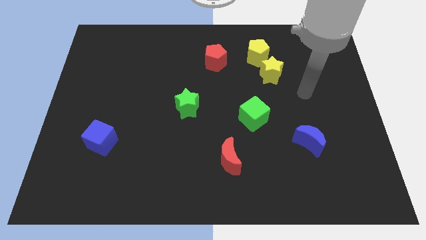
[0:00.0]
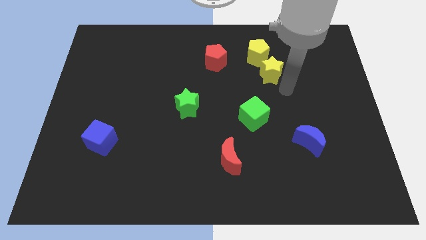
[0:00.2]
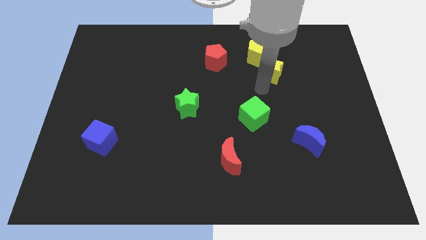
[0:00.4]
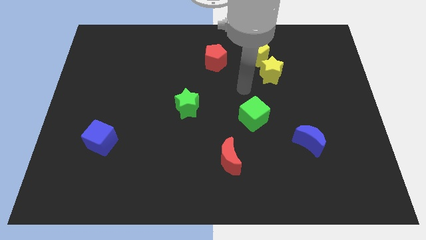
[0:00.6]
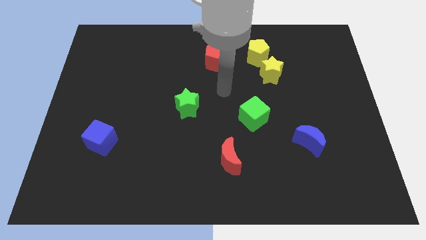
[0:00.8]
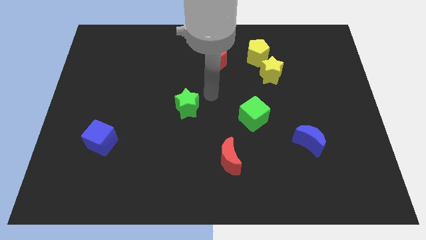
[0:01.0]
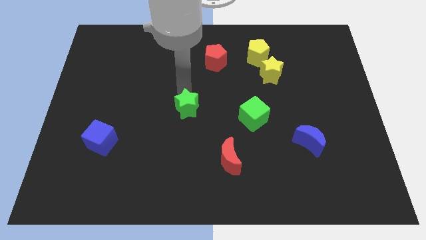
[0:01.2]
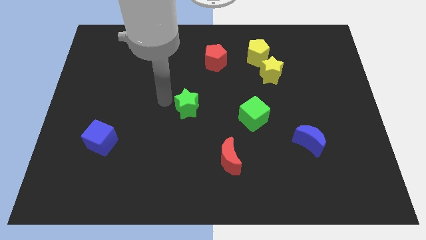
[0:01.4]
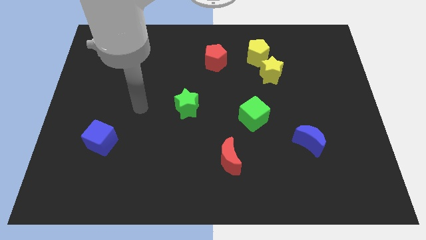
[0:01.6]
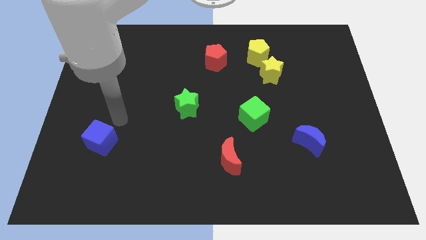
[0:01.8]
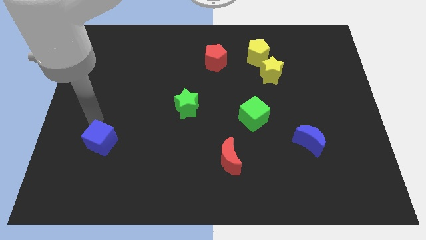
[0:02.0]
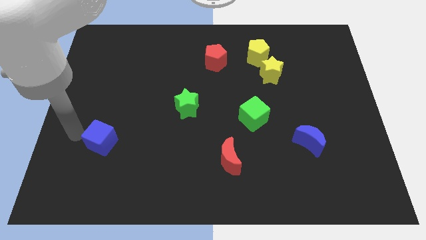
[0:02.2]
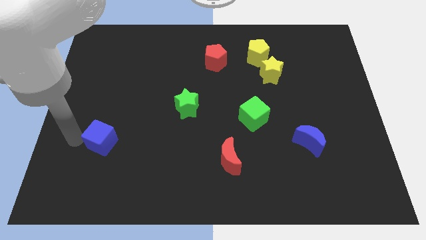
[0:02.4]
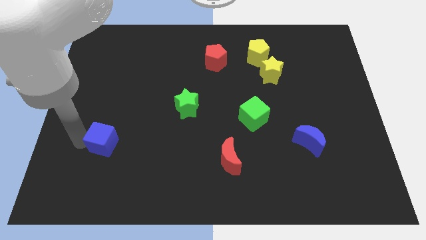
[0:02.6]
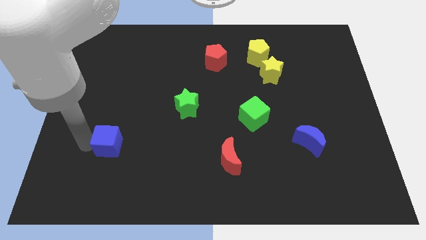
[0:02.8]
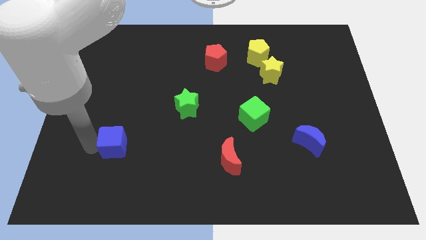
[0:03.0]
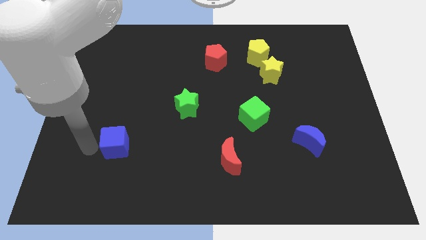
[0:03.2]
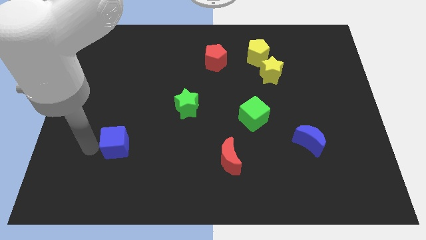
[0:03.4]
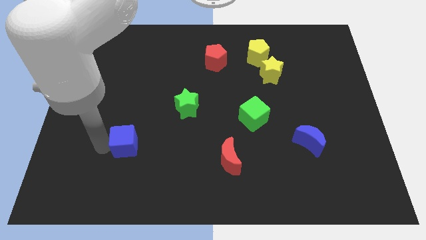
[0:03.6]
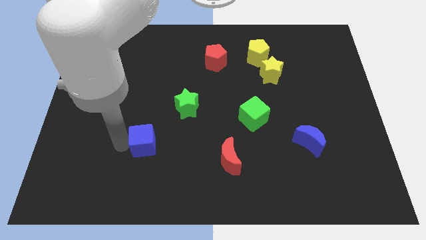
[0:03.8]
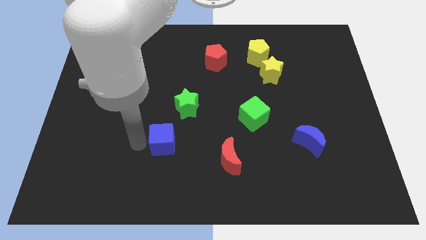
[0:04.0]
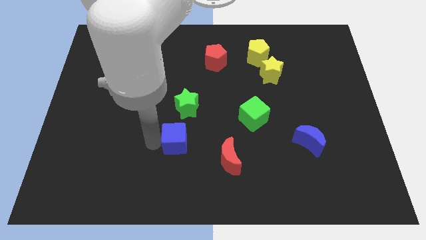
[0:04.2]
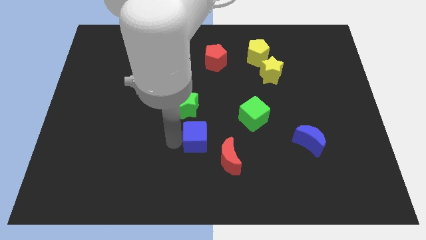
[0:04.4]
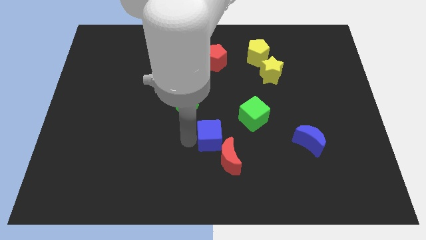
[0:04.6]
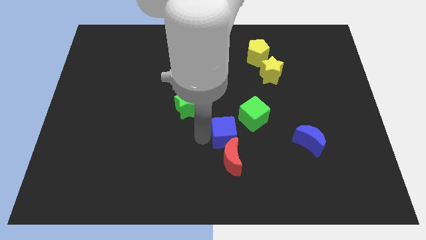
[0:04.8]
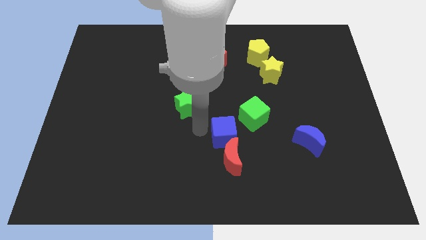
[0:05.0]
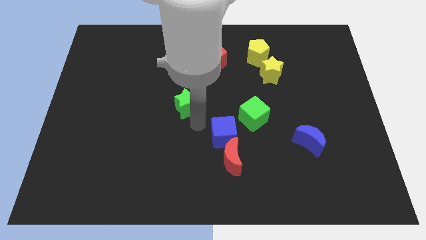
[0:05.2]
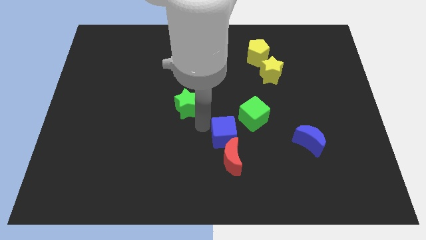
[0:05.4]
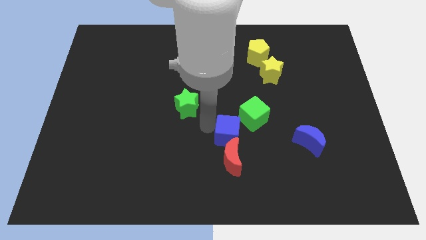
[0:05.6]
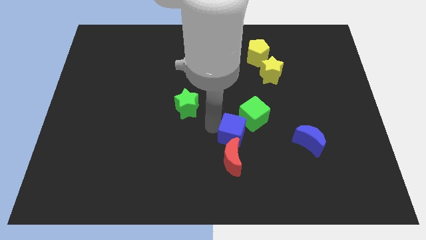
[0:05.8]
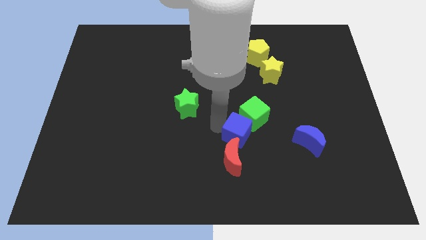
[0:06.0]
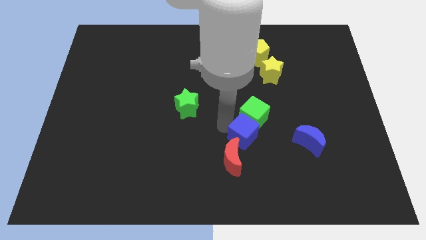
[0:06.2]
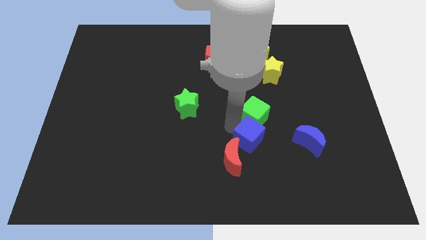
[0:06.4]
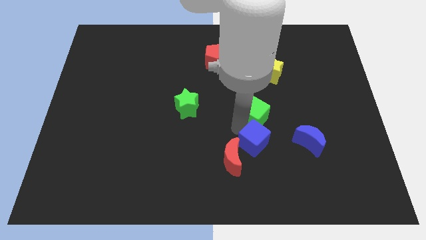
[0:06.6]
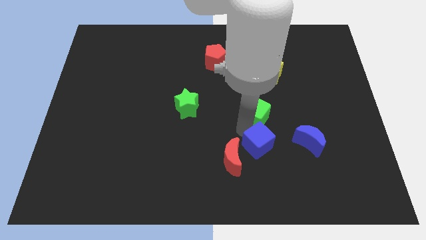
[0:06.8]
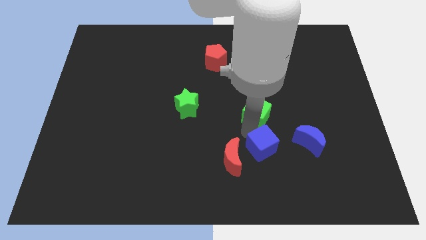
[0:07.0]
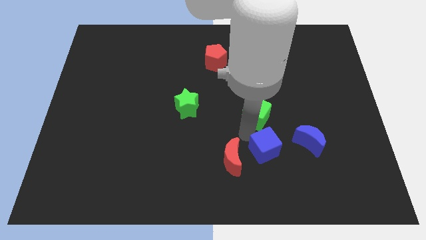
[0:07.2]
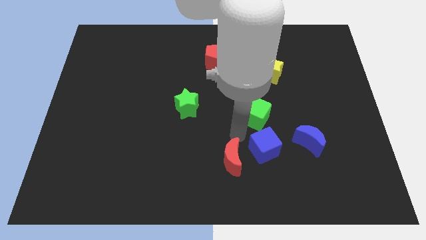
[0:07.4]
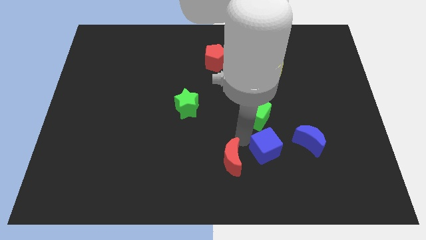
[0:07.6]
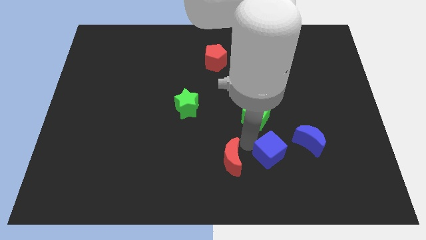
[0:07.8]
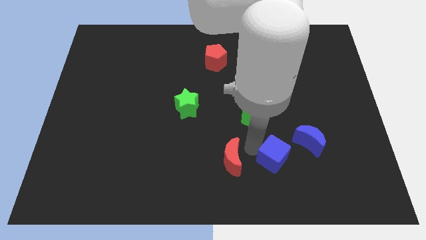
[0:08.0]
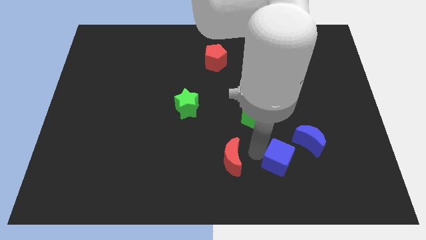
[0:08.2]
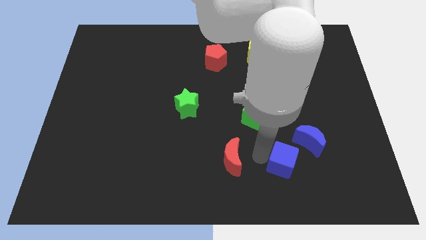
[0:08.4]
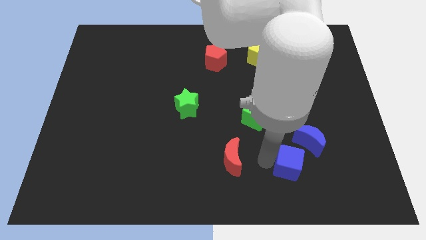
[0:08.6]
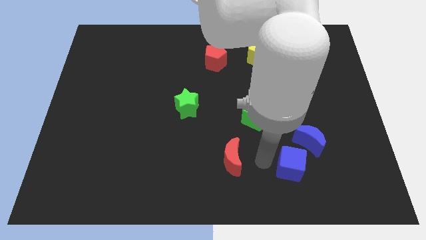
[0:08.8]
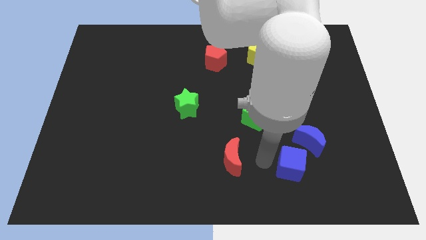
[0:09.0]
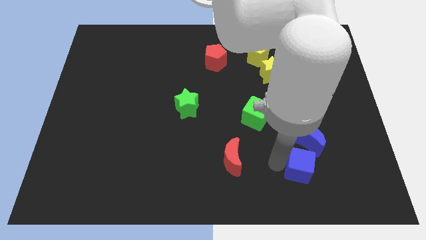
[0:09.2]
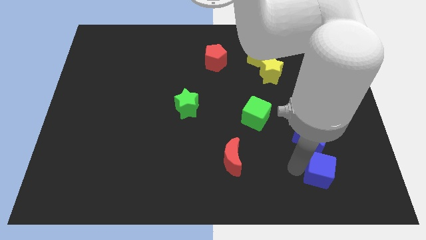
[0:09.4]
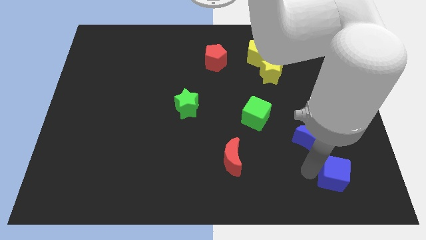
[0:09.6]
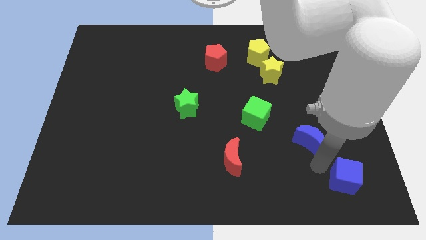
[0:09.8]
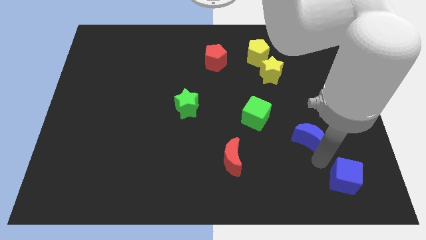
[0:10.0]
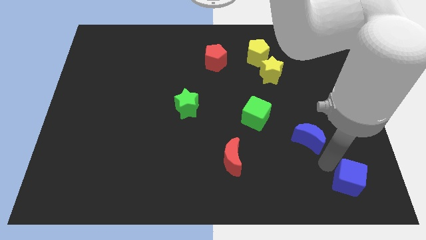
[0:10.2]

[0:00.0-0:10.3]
put the blue cube to the bottom right corner
